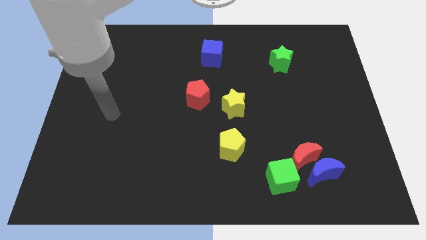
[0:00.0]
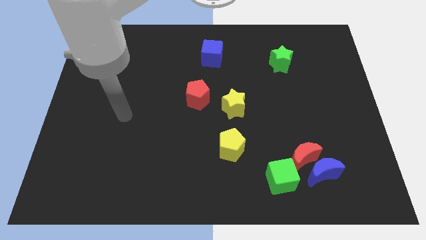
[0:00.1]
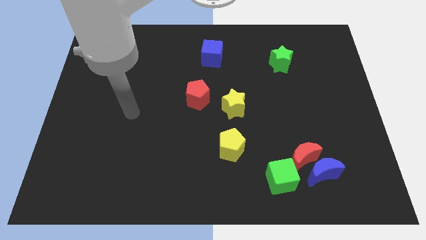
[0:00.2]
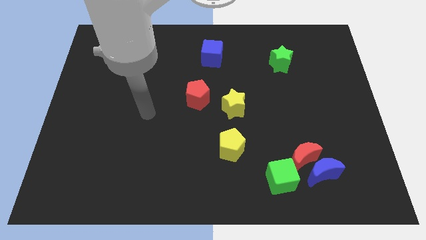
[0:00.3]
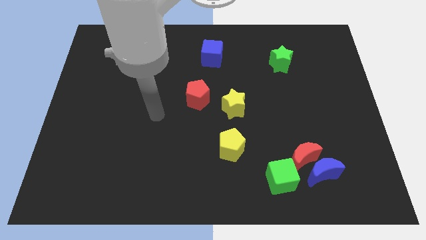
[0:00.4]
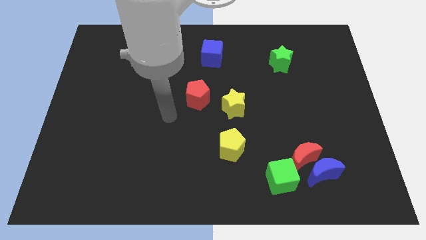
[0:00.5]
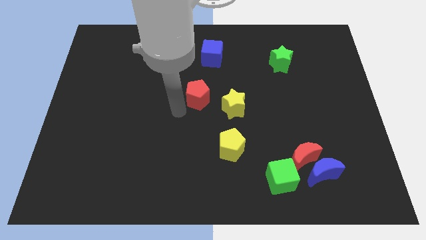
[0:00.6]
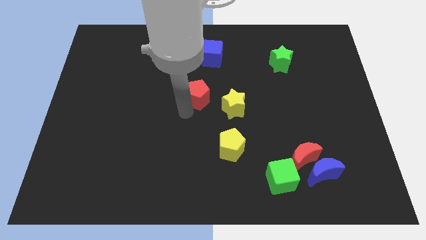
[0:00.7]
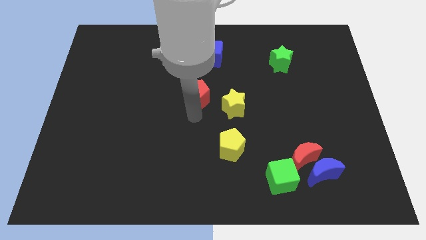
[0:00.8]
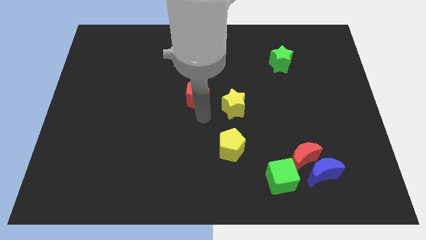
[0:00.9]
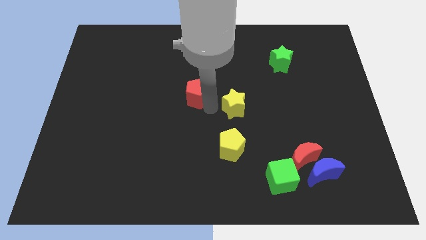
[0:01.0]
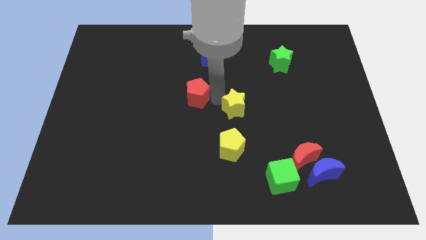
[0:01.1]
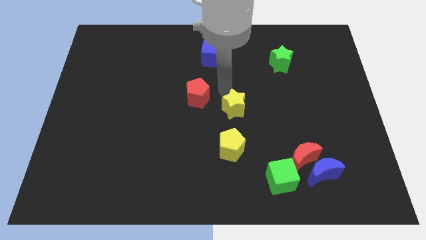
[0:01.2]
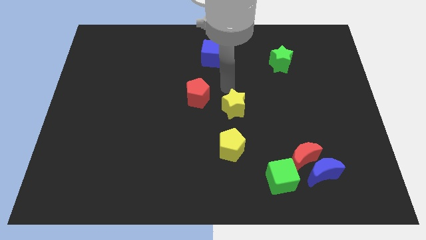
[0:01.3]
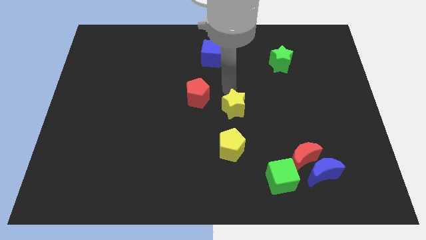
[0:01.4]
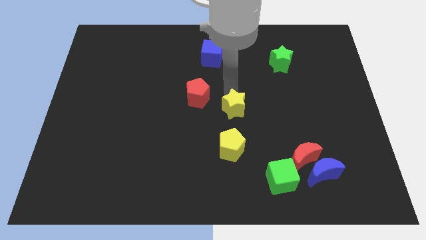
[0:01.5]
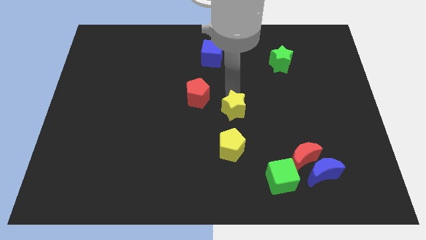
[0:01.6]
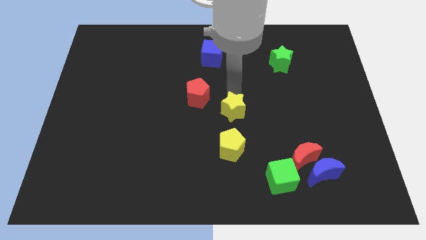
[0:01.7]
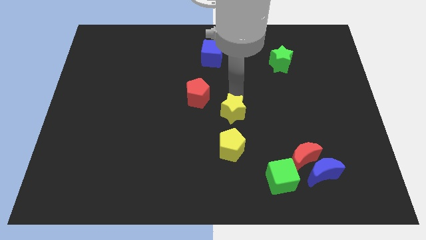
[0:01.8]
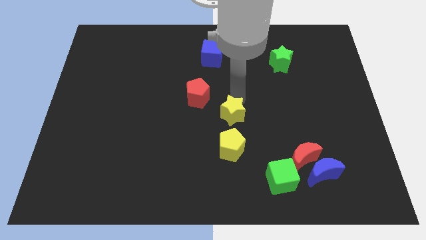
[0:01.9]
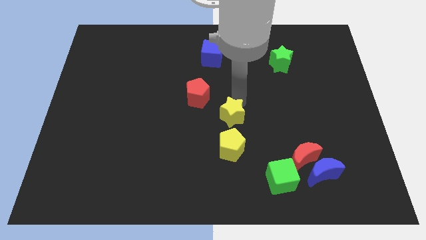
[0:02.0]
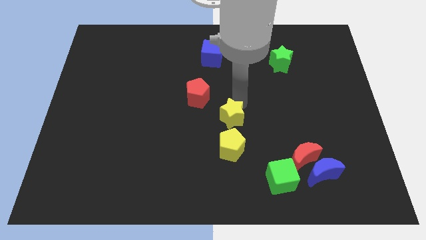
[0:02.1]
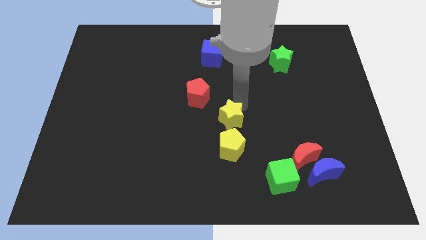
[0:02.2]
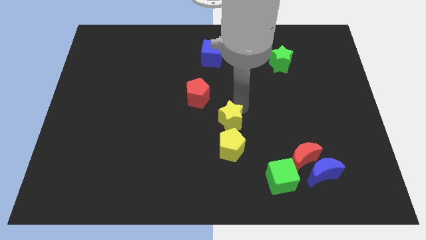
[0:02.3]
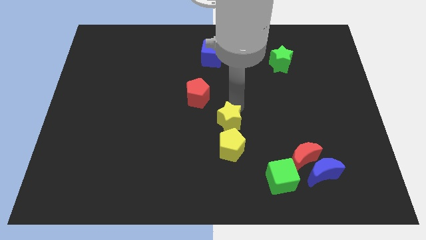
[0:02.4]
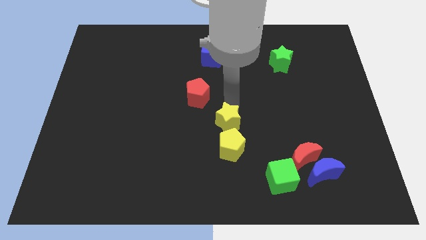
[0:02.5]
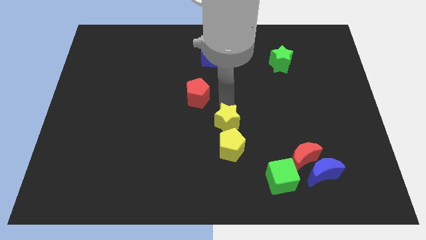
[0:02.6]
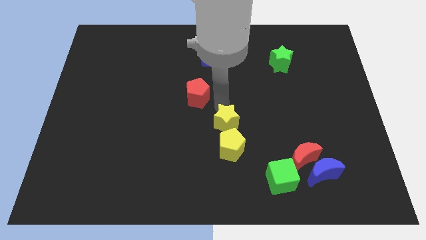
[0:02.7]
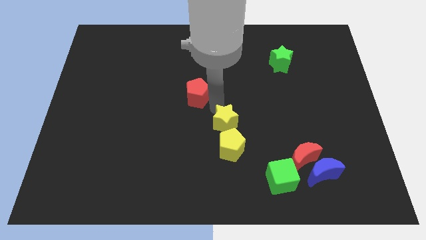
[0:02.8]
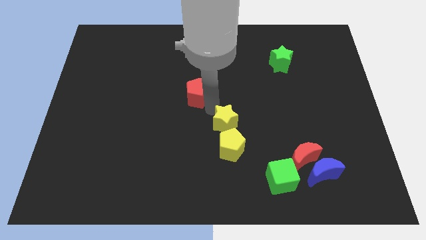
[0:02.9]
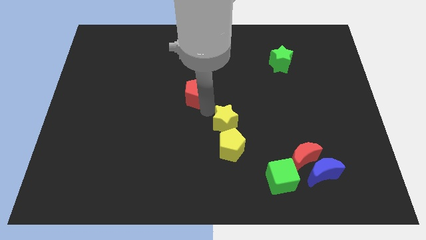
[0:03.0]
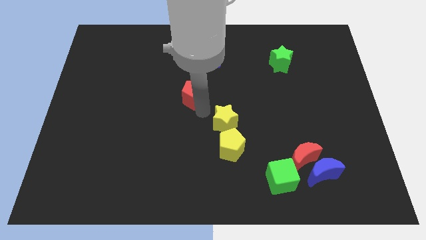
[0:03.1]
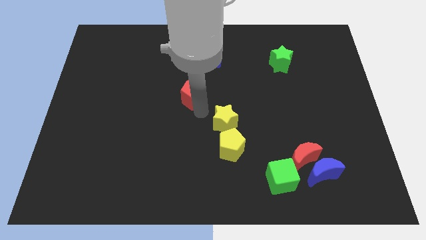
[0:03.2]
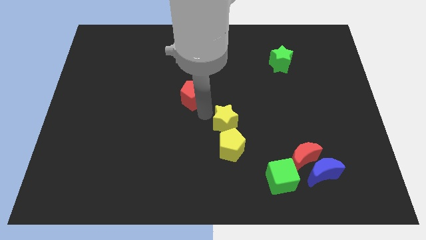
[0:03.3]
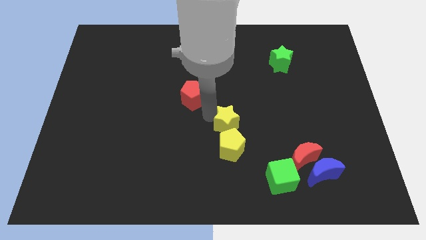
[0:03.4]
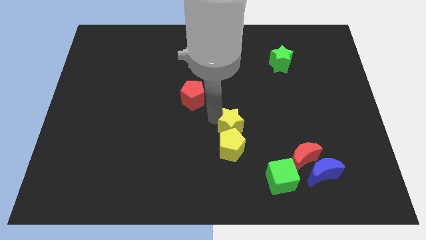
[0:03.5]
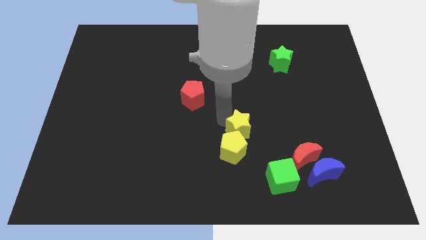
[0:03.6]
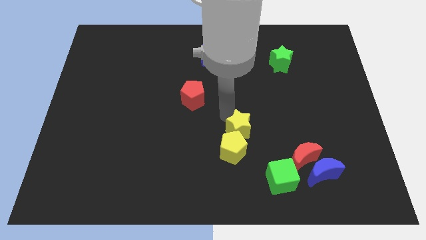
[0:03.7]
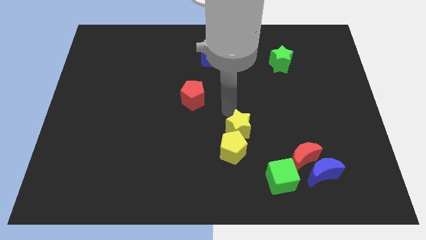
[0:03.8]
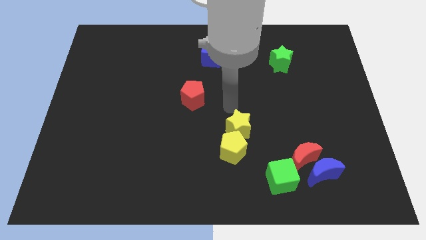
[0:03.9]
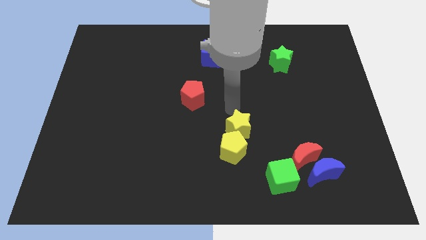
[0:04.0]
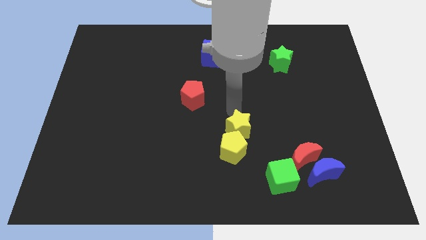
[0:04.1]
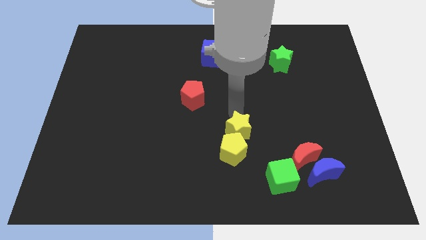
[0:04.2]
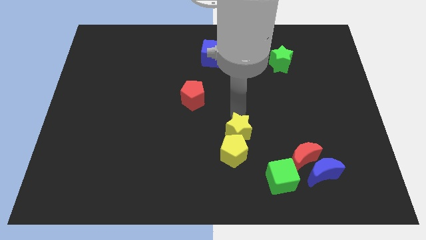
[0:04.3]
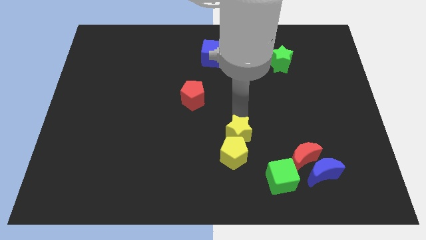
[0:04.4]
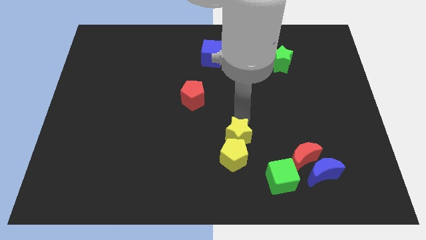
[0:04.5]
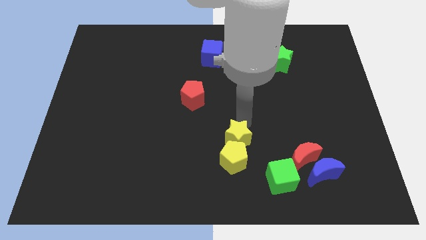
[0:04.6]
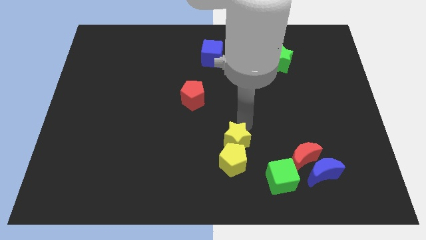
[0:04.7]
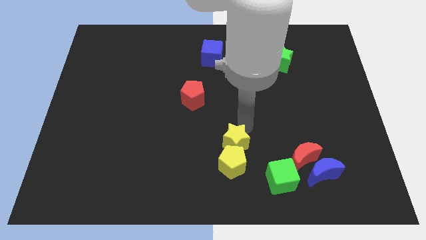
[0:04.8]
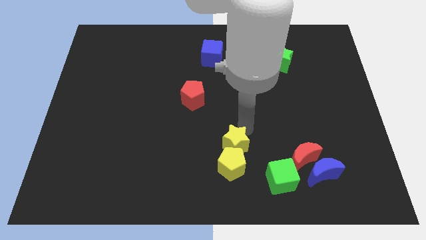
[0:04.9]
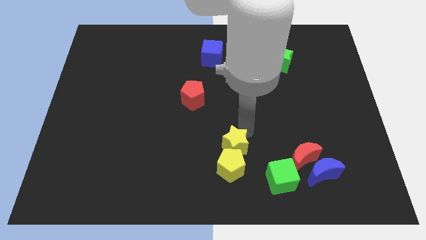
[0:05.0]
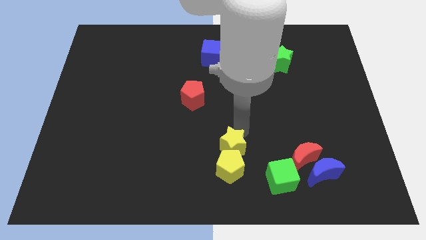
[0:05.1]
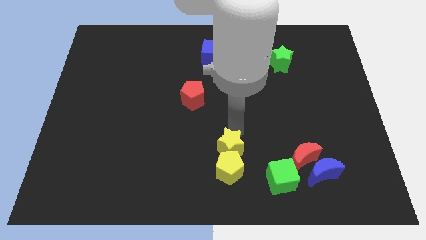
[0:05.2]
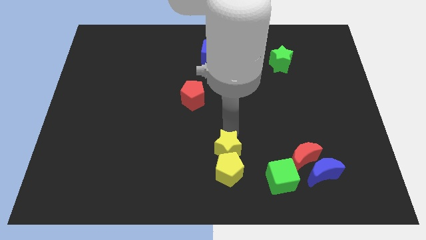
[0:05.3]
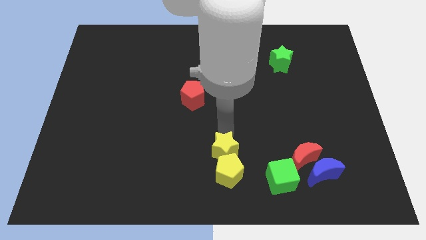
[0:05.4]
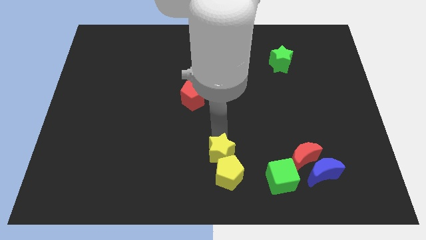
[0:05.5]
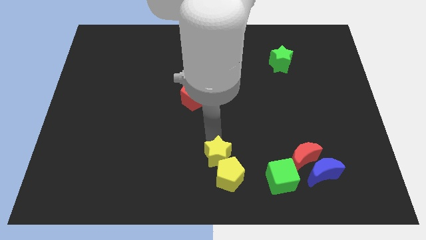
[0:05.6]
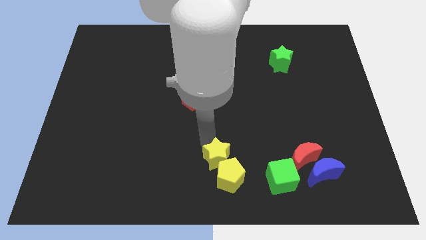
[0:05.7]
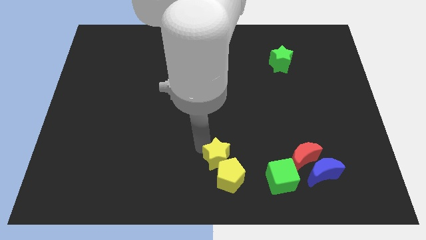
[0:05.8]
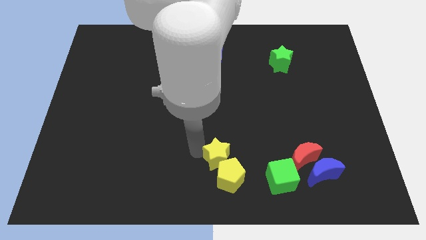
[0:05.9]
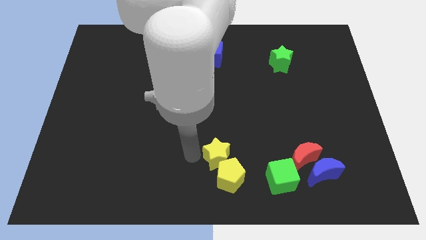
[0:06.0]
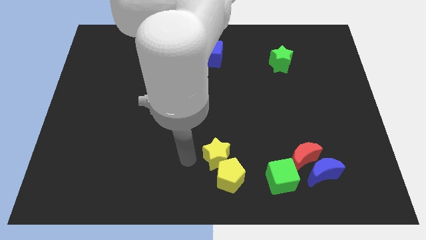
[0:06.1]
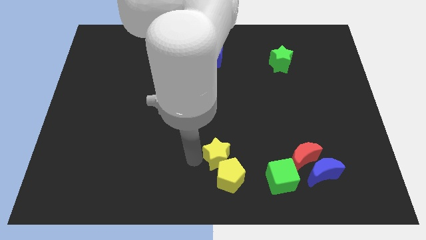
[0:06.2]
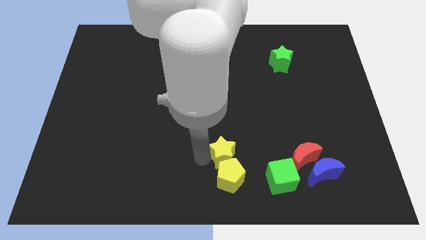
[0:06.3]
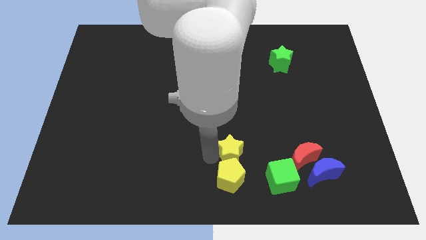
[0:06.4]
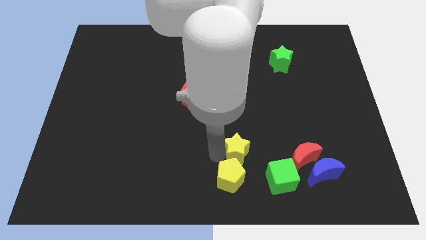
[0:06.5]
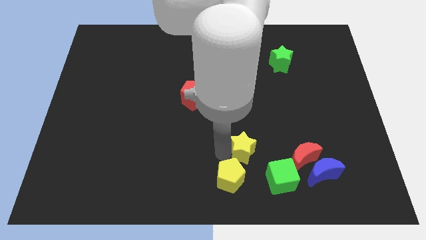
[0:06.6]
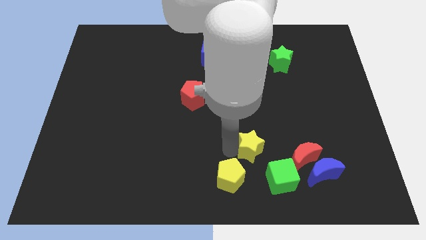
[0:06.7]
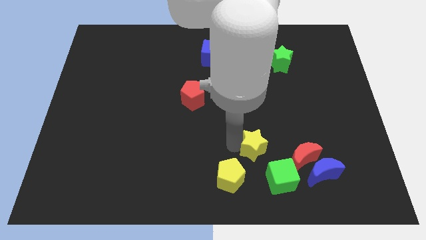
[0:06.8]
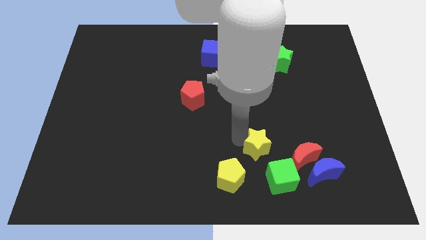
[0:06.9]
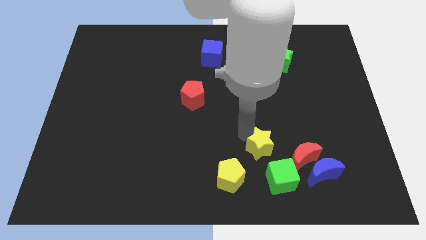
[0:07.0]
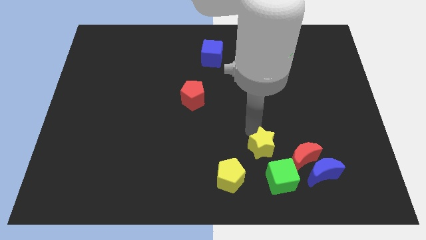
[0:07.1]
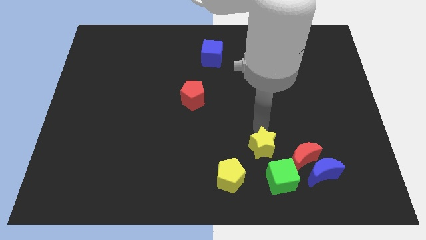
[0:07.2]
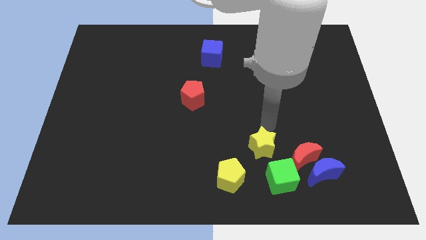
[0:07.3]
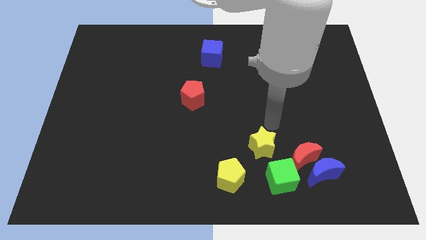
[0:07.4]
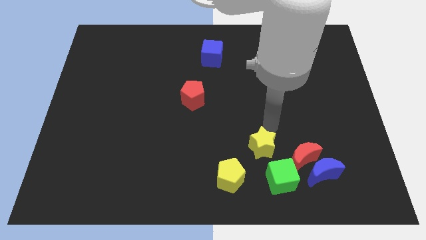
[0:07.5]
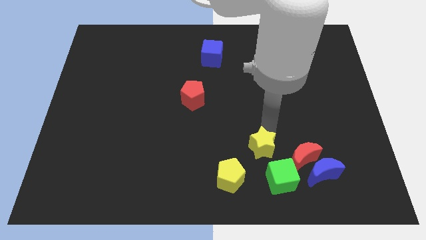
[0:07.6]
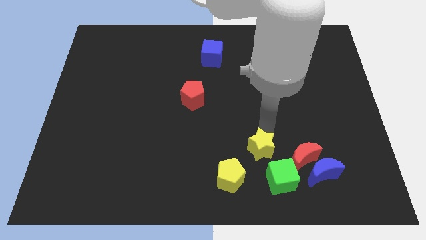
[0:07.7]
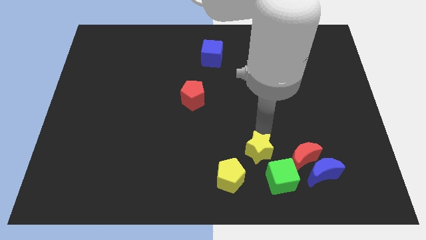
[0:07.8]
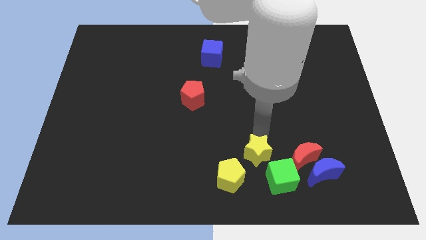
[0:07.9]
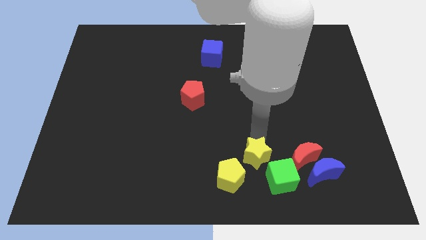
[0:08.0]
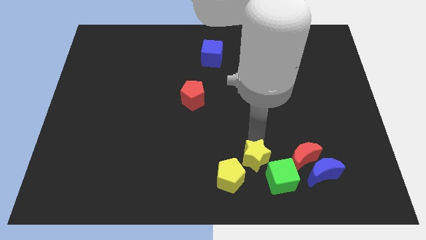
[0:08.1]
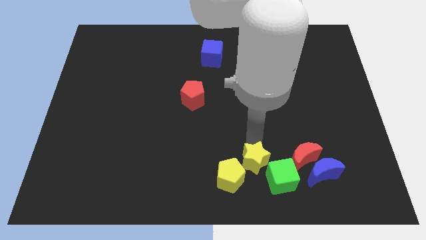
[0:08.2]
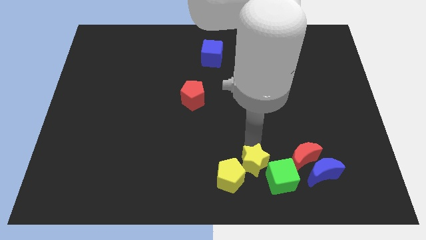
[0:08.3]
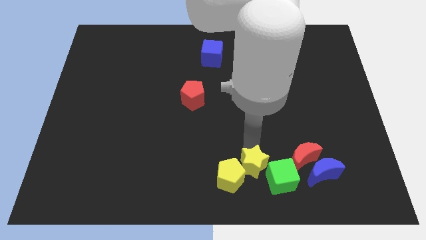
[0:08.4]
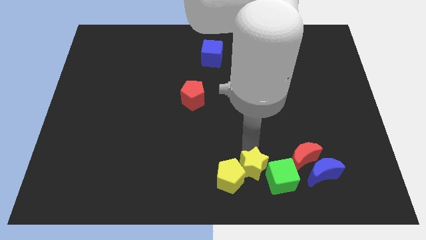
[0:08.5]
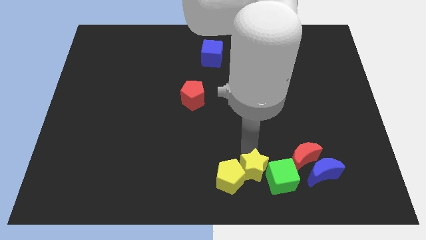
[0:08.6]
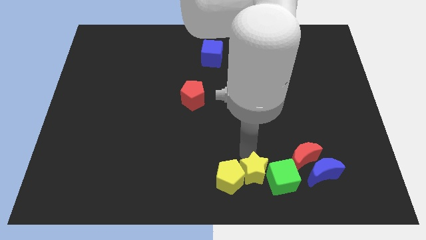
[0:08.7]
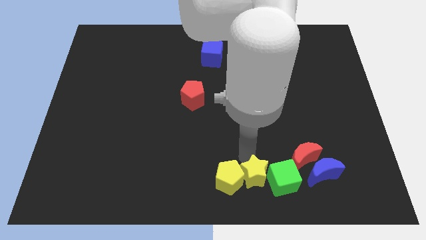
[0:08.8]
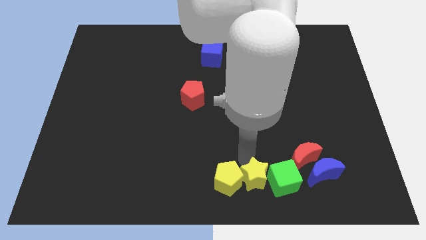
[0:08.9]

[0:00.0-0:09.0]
put the yellow star diagonally down and to the left of the red moon
